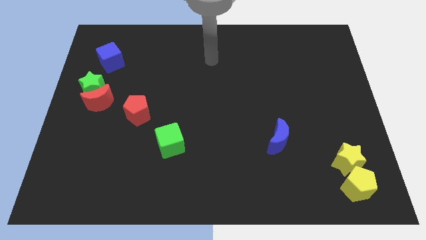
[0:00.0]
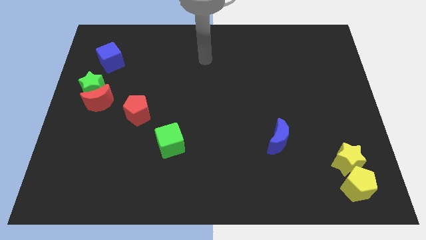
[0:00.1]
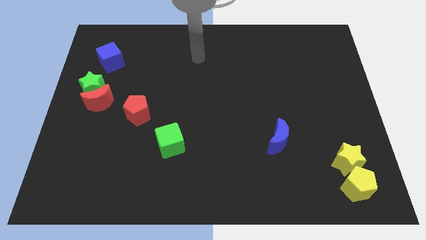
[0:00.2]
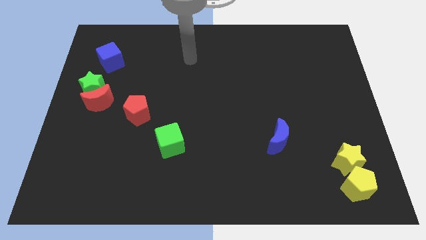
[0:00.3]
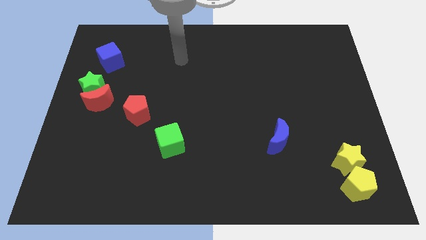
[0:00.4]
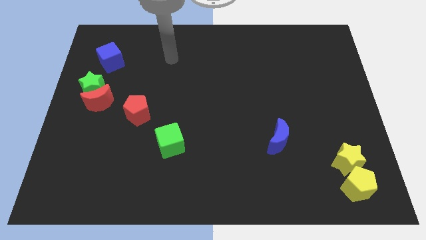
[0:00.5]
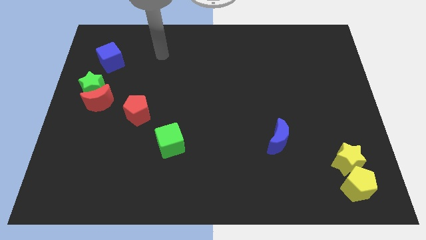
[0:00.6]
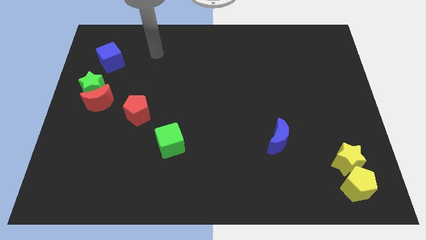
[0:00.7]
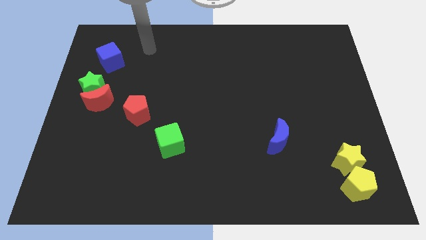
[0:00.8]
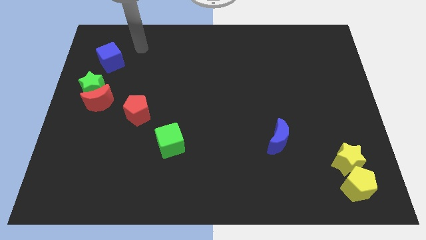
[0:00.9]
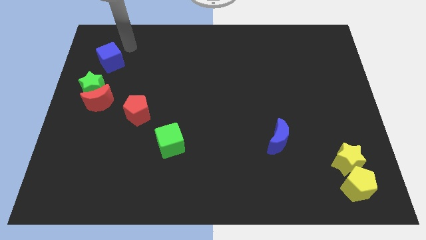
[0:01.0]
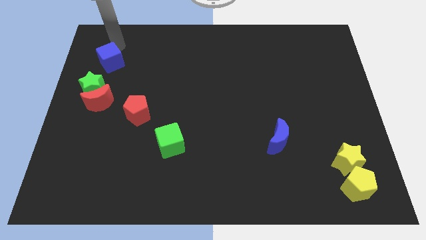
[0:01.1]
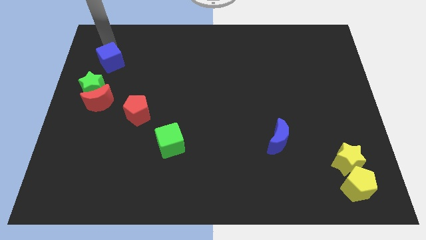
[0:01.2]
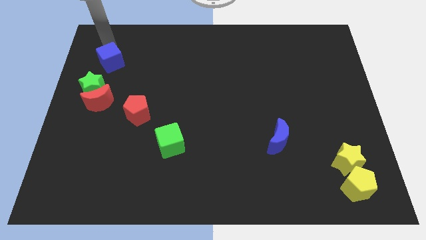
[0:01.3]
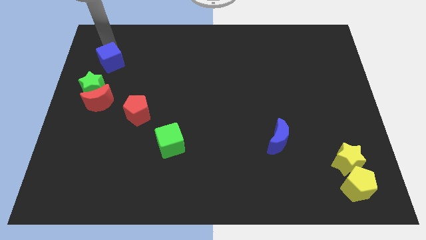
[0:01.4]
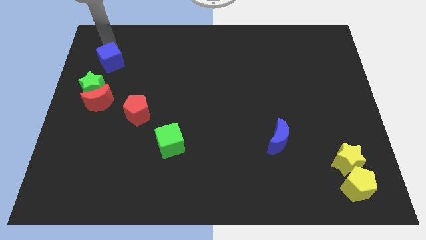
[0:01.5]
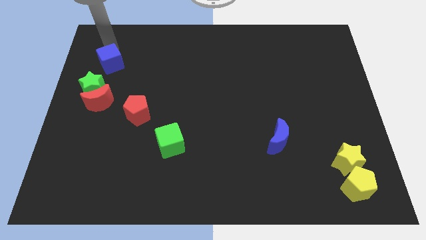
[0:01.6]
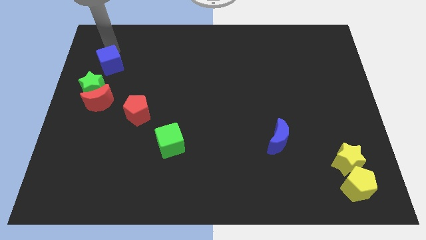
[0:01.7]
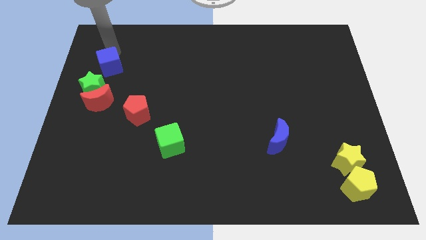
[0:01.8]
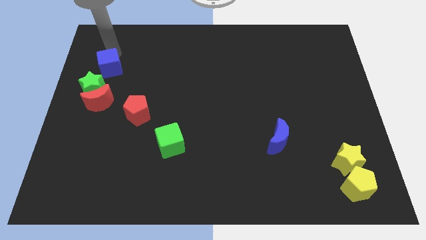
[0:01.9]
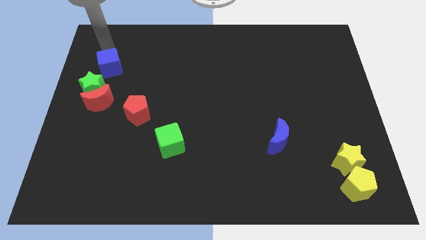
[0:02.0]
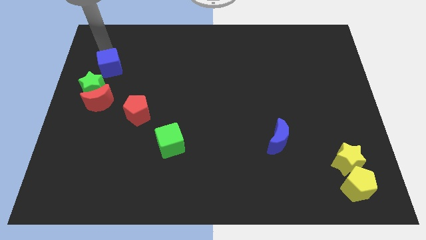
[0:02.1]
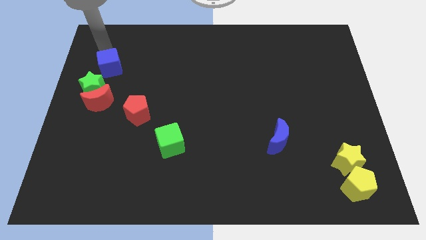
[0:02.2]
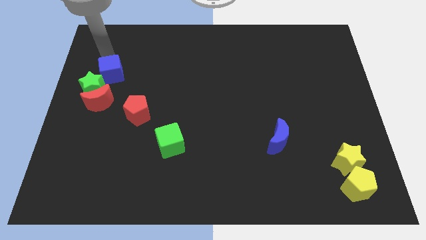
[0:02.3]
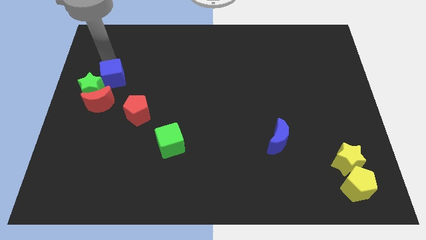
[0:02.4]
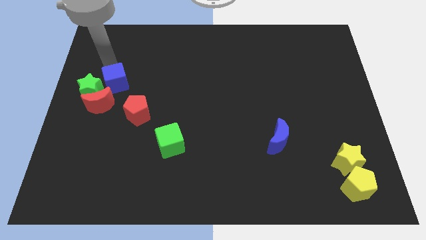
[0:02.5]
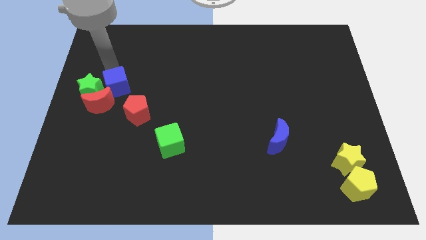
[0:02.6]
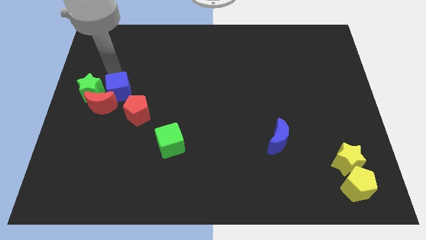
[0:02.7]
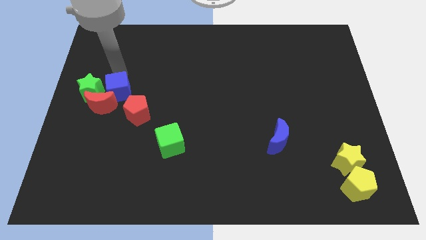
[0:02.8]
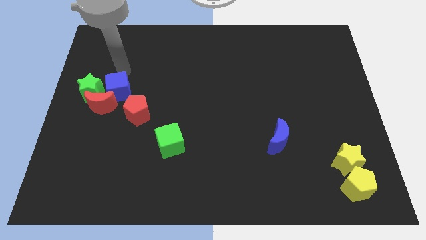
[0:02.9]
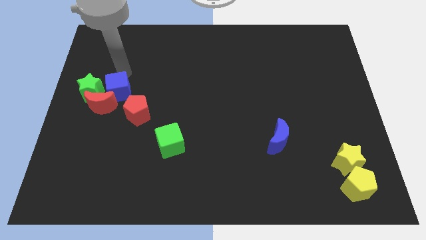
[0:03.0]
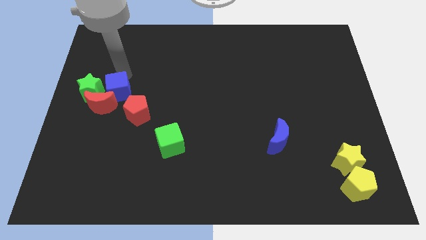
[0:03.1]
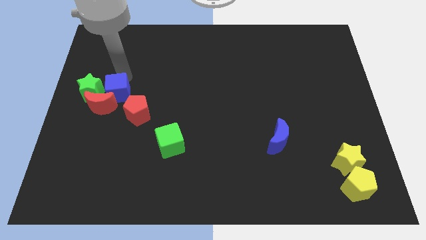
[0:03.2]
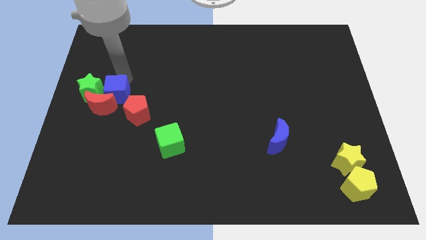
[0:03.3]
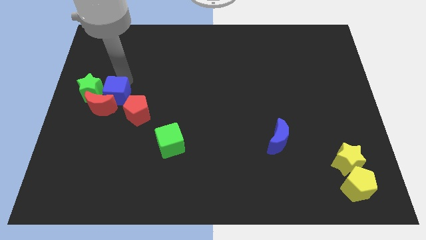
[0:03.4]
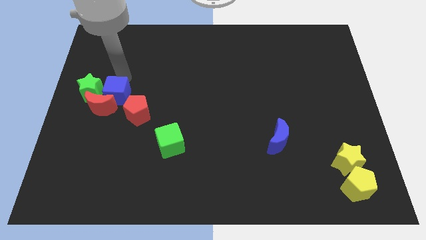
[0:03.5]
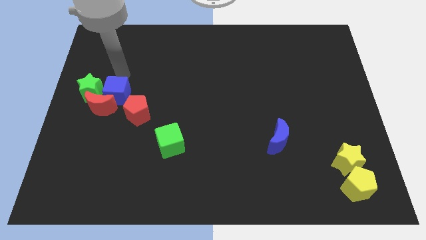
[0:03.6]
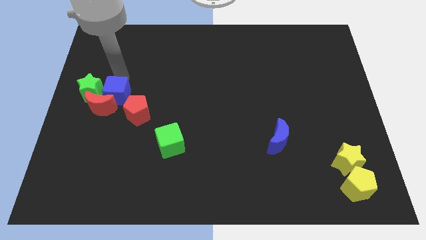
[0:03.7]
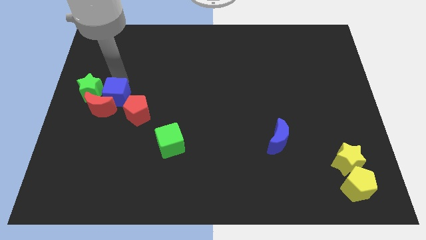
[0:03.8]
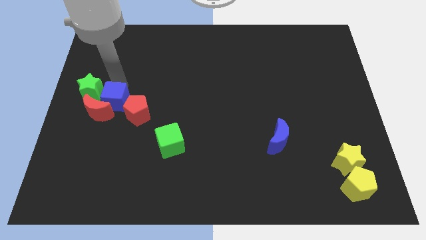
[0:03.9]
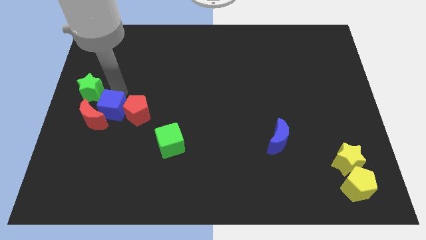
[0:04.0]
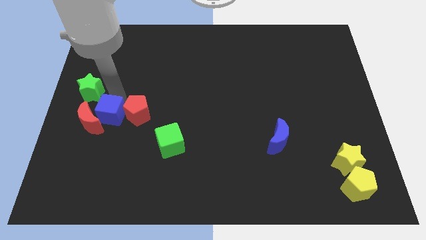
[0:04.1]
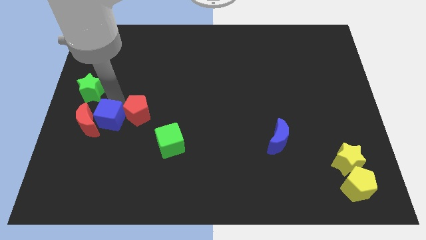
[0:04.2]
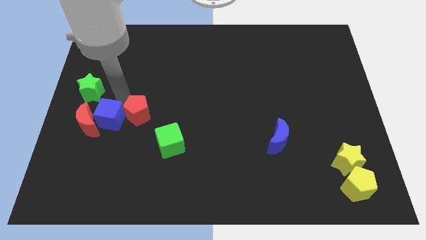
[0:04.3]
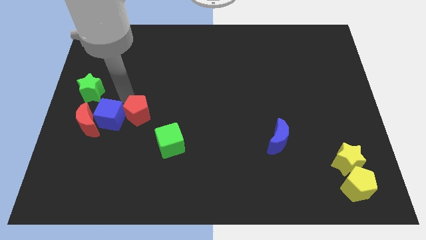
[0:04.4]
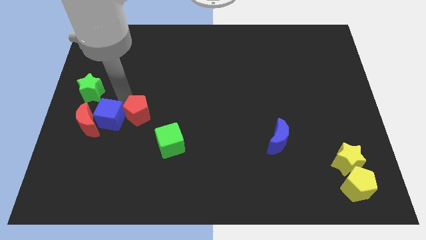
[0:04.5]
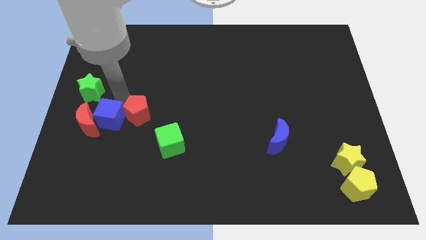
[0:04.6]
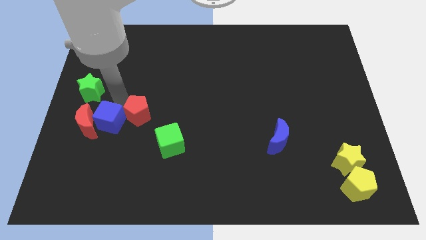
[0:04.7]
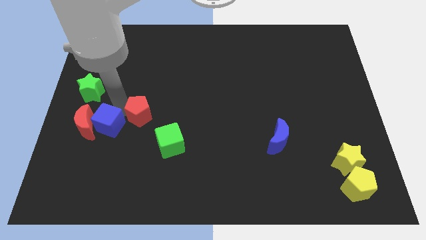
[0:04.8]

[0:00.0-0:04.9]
move the blue cube downwards

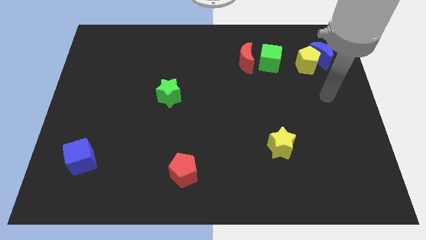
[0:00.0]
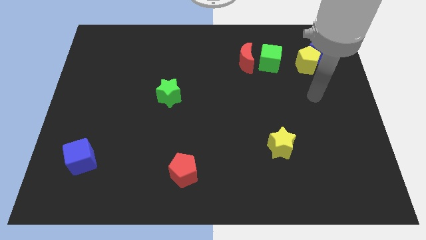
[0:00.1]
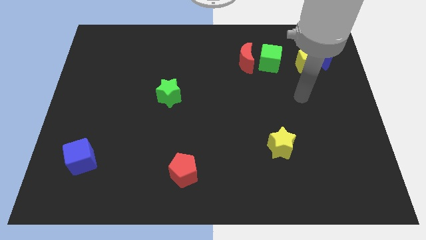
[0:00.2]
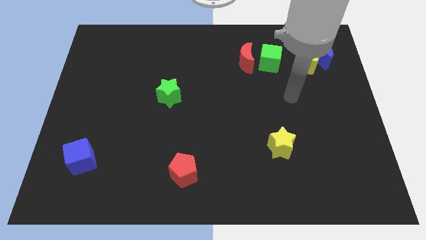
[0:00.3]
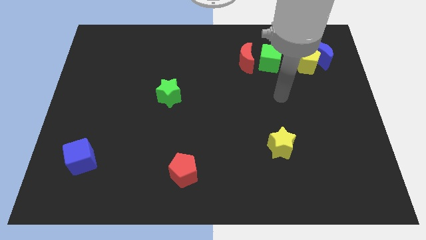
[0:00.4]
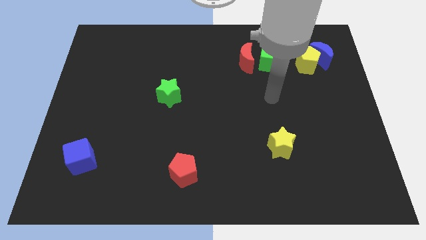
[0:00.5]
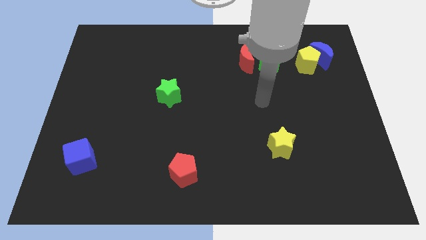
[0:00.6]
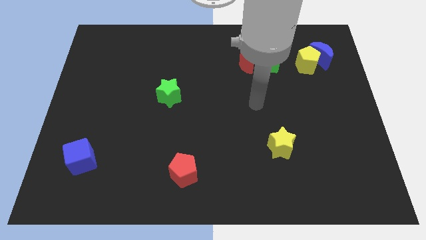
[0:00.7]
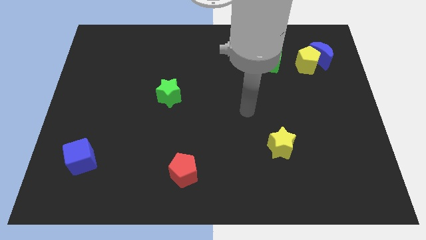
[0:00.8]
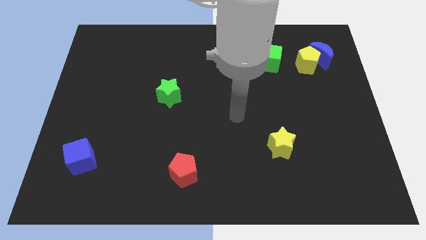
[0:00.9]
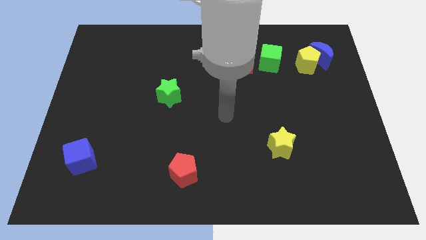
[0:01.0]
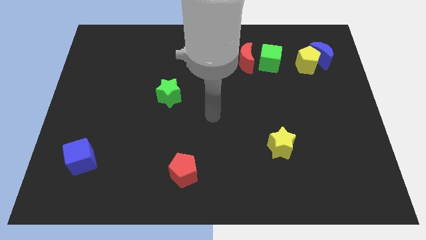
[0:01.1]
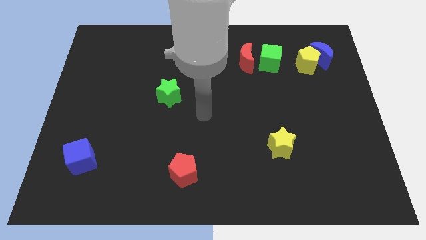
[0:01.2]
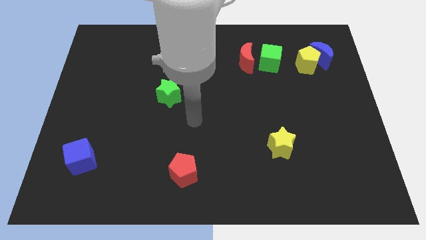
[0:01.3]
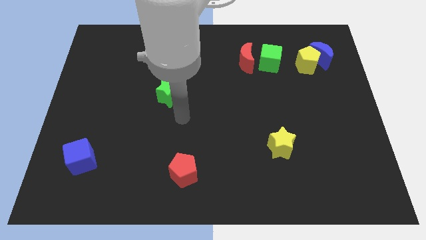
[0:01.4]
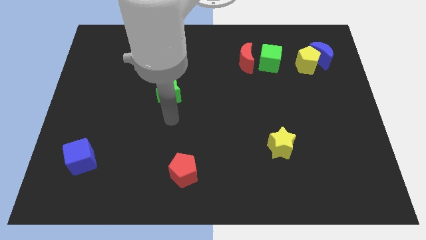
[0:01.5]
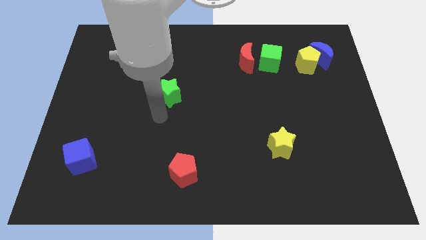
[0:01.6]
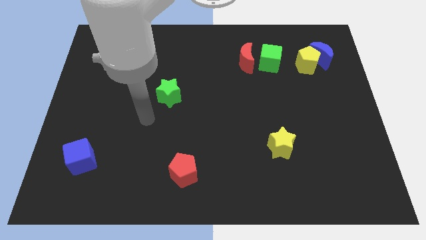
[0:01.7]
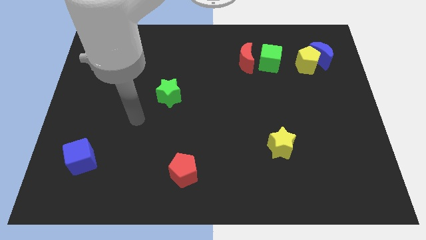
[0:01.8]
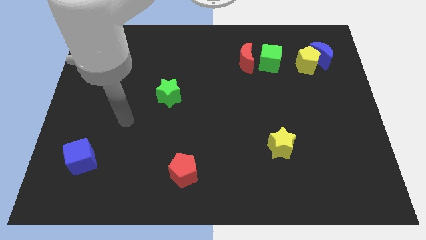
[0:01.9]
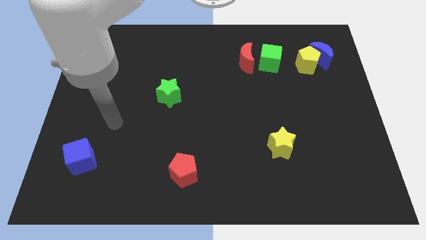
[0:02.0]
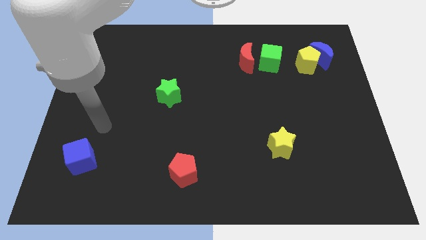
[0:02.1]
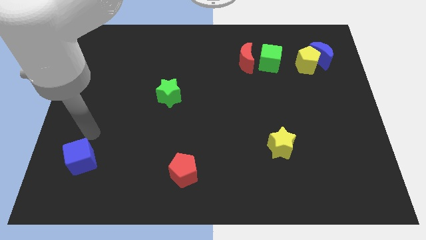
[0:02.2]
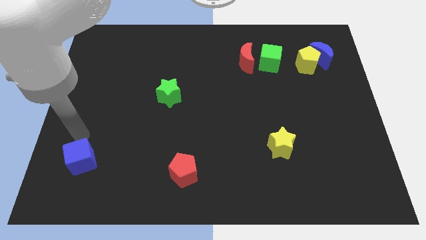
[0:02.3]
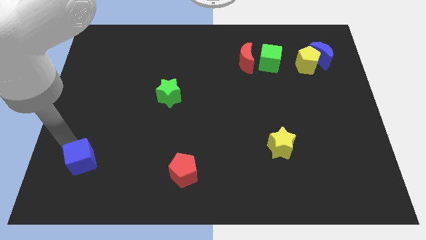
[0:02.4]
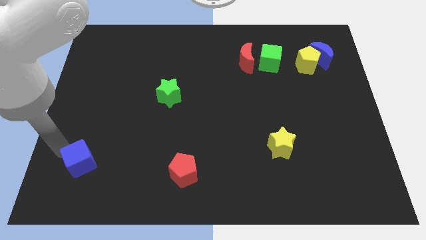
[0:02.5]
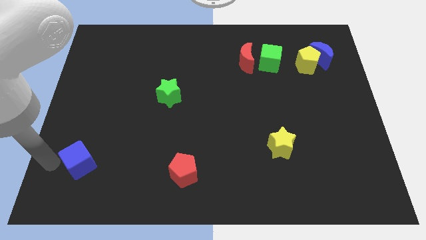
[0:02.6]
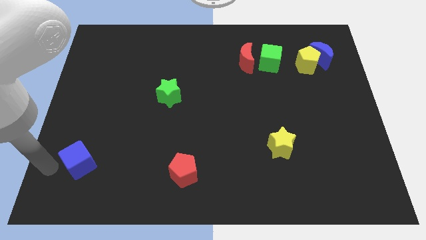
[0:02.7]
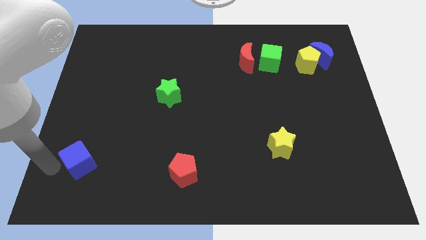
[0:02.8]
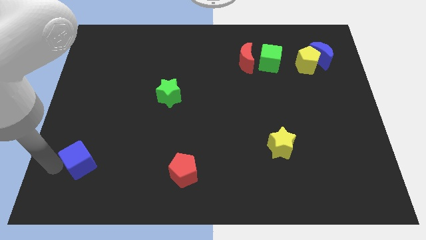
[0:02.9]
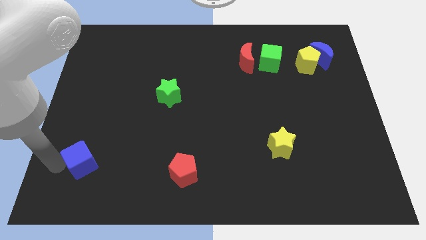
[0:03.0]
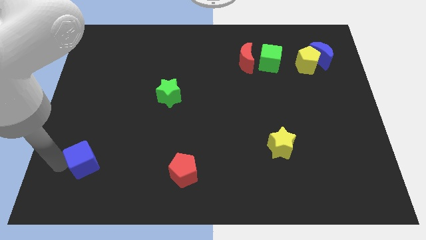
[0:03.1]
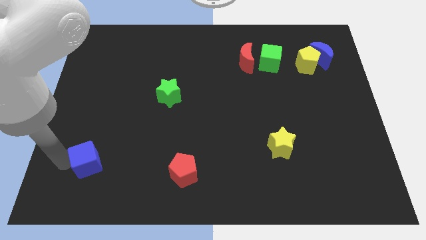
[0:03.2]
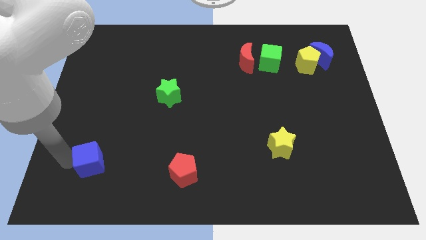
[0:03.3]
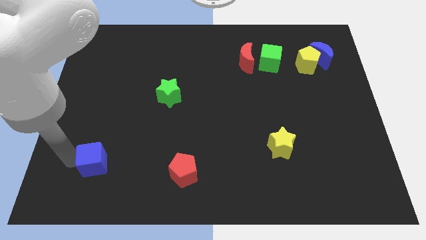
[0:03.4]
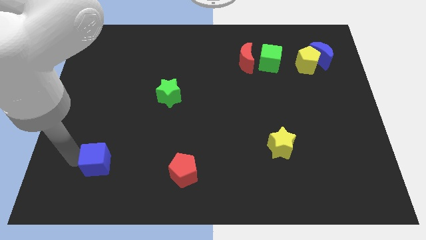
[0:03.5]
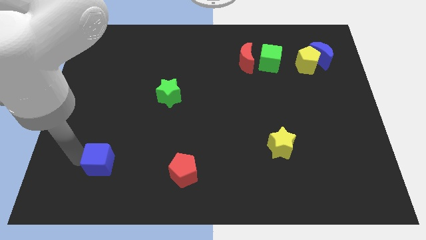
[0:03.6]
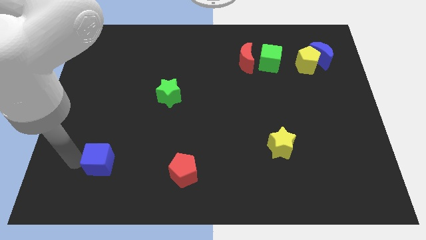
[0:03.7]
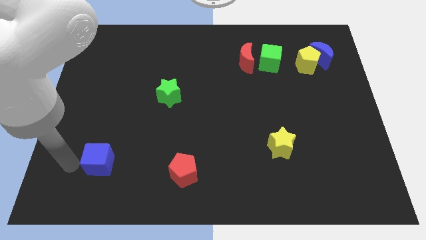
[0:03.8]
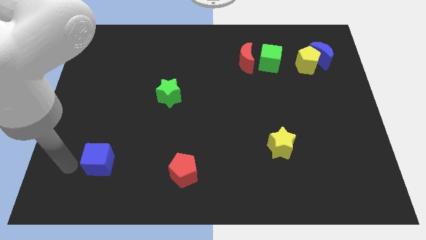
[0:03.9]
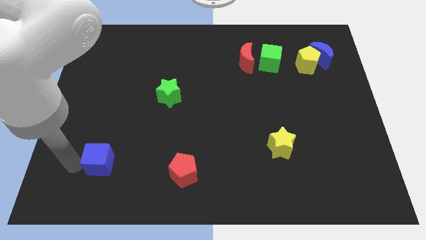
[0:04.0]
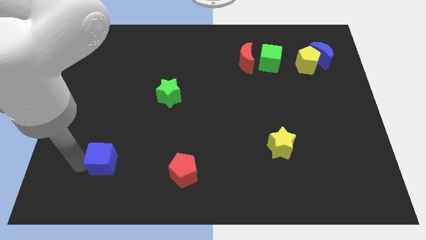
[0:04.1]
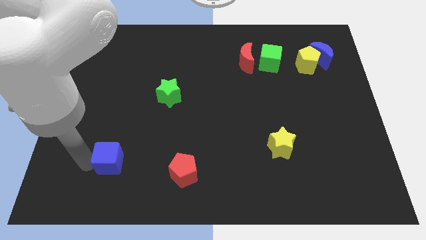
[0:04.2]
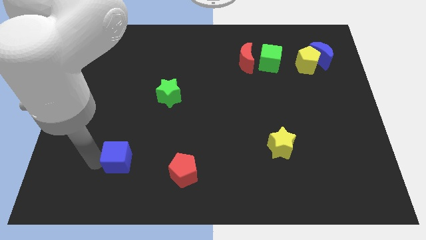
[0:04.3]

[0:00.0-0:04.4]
push the blue cube somewhat to the right
